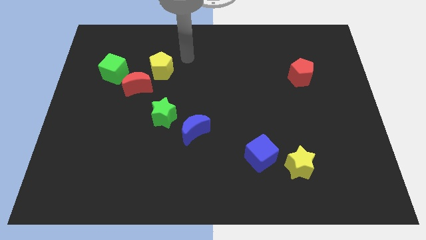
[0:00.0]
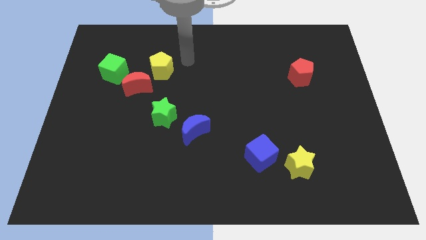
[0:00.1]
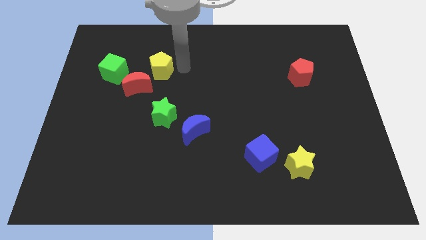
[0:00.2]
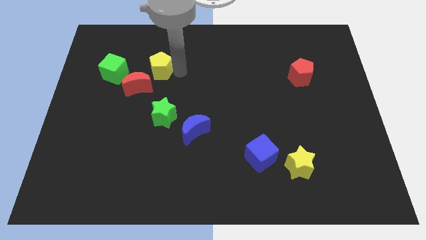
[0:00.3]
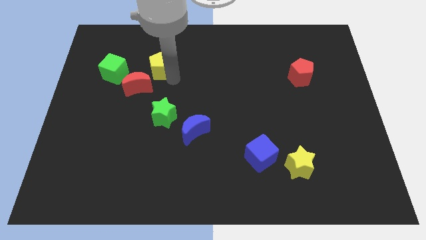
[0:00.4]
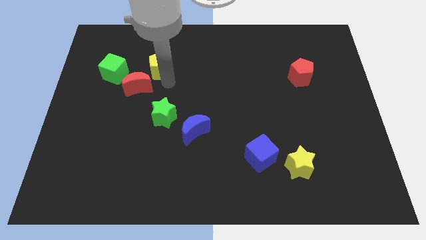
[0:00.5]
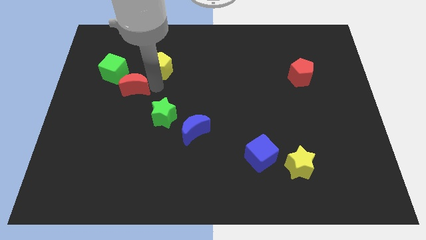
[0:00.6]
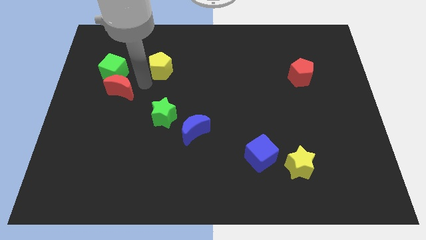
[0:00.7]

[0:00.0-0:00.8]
pull the yellow pentagon apart from the red moon

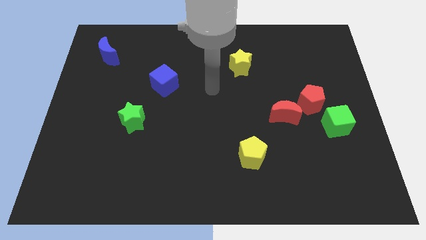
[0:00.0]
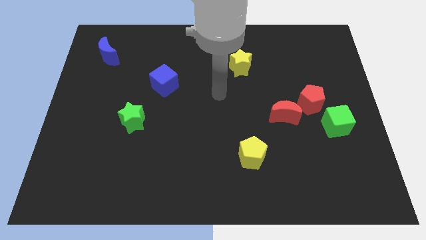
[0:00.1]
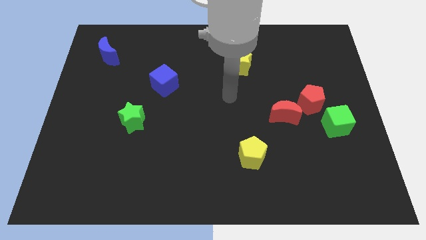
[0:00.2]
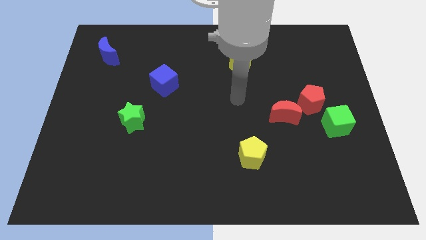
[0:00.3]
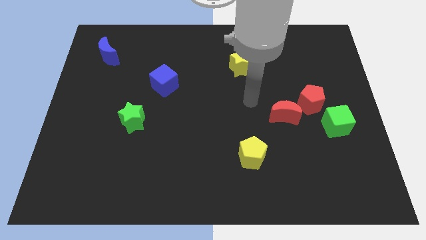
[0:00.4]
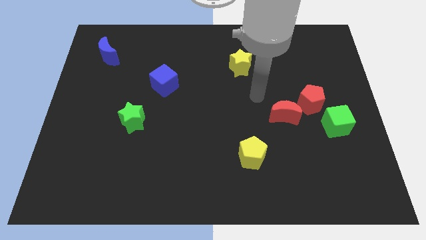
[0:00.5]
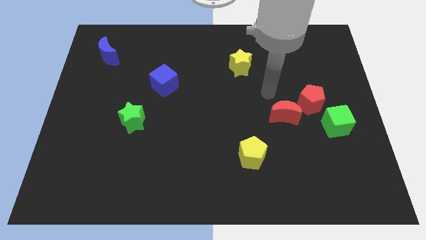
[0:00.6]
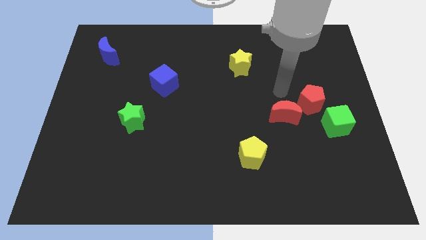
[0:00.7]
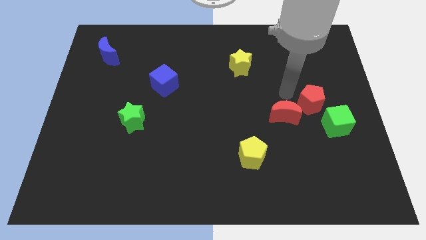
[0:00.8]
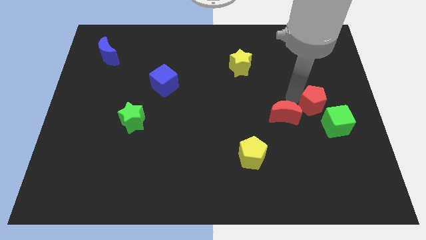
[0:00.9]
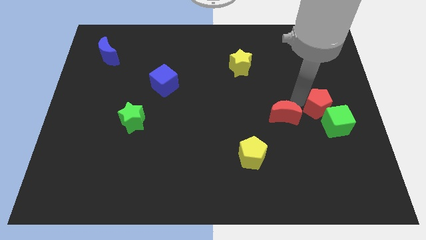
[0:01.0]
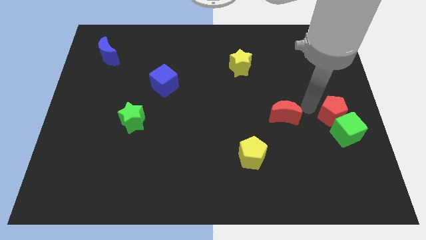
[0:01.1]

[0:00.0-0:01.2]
move the red moon away from the red pentagon

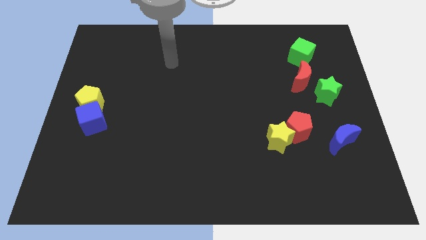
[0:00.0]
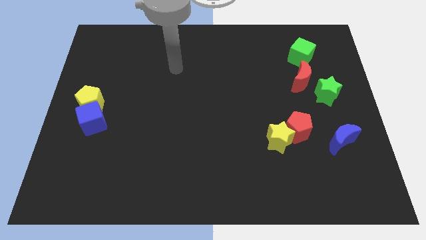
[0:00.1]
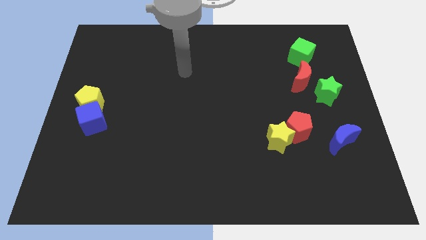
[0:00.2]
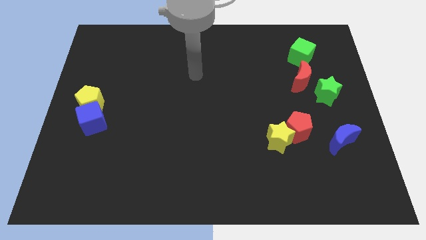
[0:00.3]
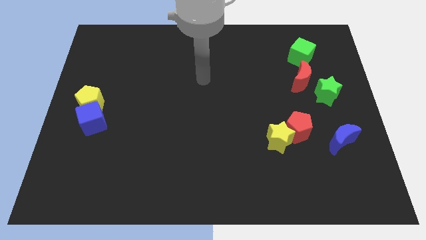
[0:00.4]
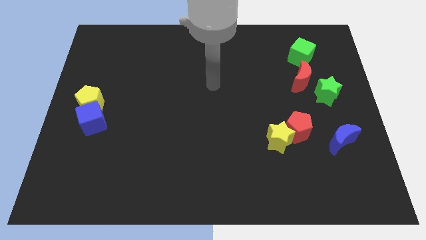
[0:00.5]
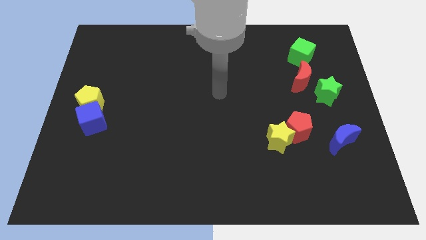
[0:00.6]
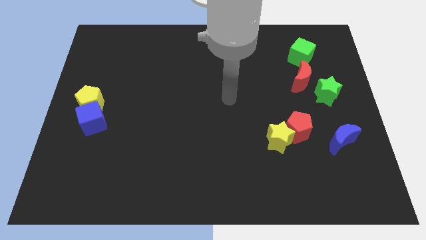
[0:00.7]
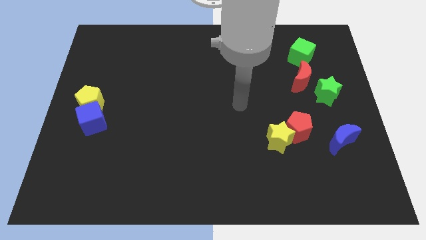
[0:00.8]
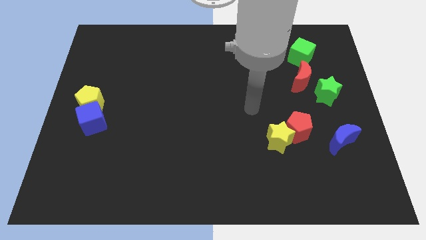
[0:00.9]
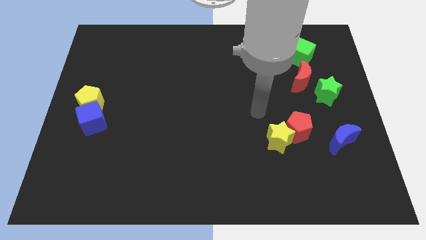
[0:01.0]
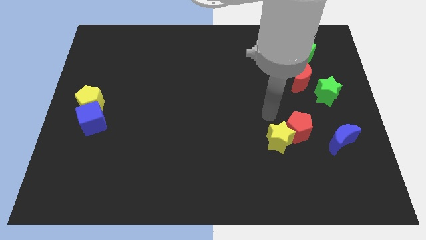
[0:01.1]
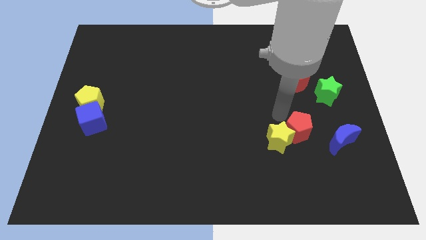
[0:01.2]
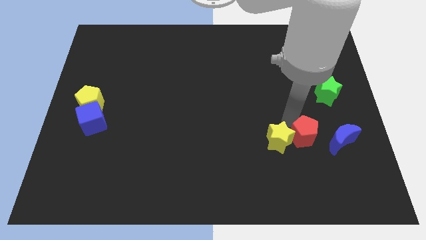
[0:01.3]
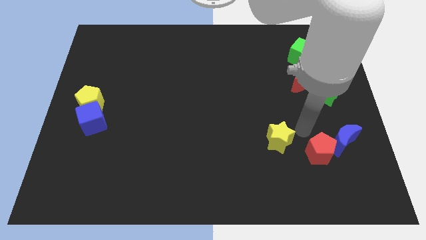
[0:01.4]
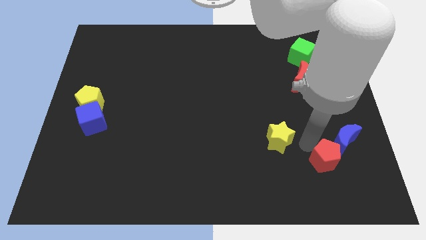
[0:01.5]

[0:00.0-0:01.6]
separate the yellow star from the red pentagon

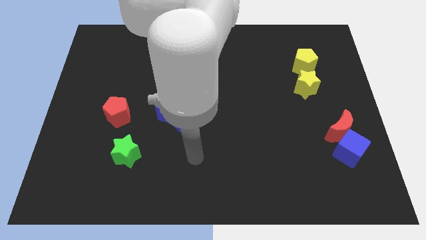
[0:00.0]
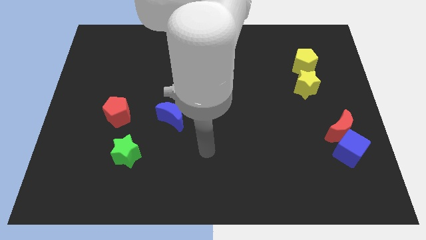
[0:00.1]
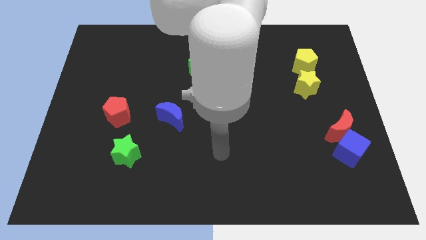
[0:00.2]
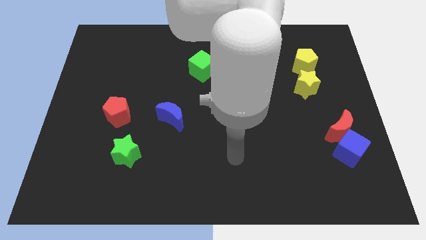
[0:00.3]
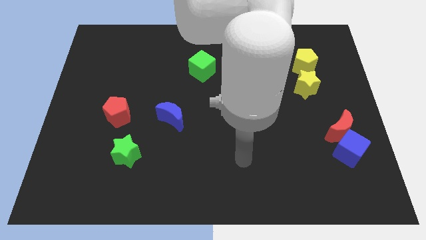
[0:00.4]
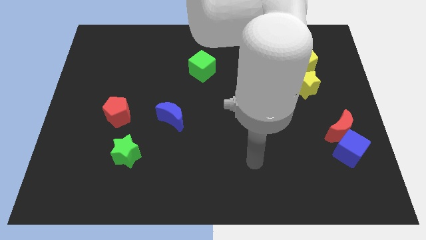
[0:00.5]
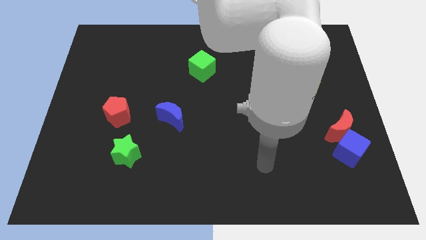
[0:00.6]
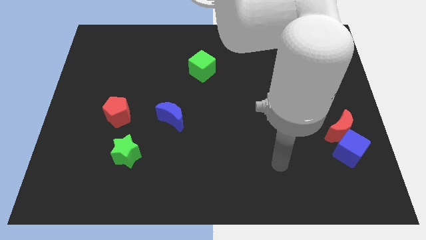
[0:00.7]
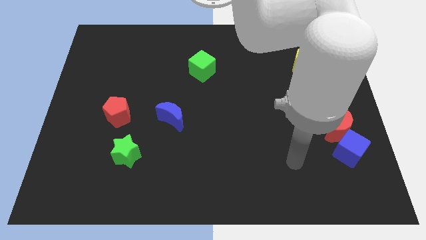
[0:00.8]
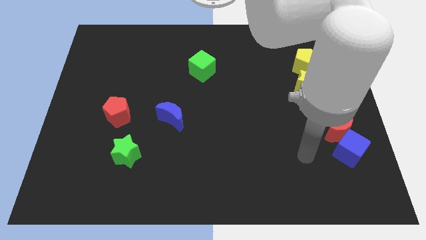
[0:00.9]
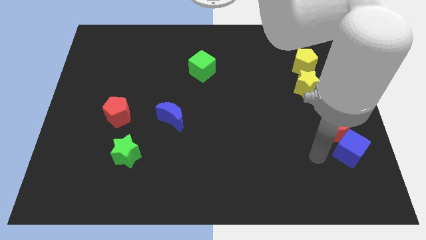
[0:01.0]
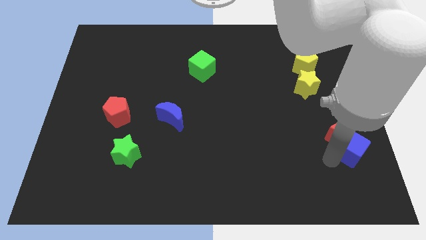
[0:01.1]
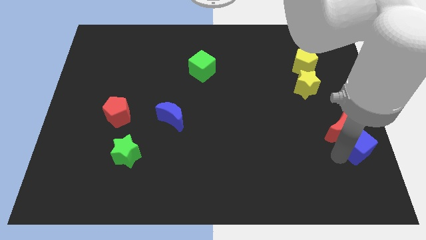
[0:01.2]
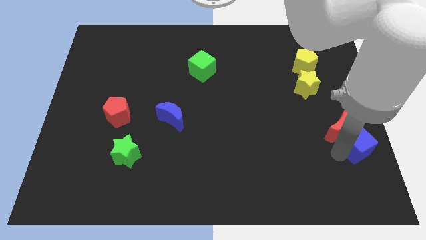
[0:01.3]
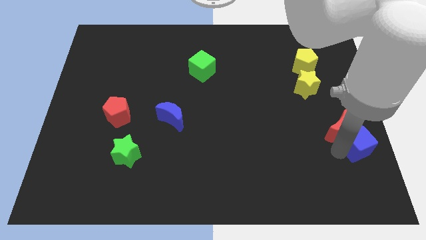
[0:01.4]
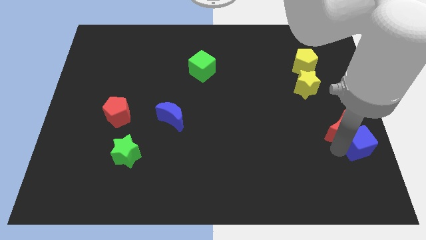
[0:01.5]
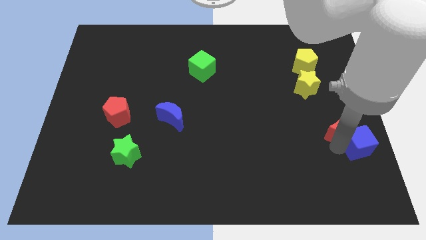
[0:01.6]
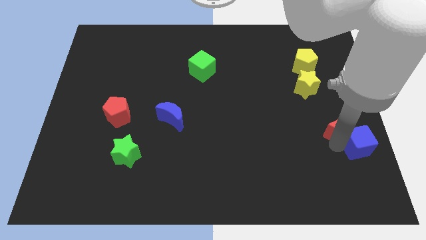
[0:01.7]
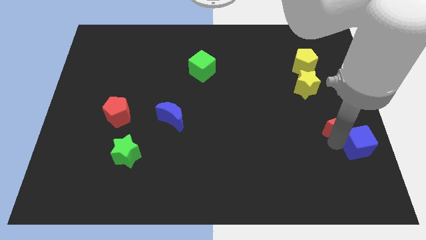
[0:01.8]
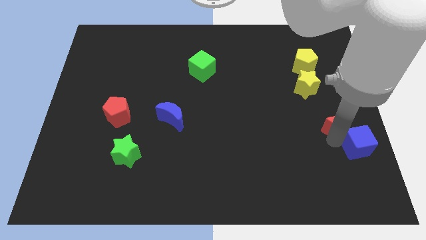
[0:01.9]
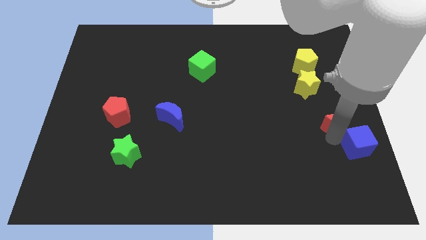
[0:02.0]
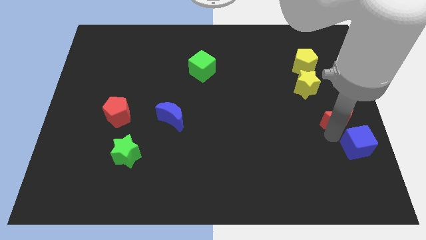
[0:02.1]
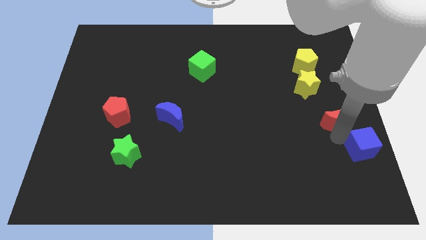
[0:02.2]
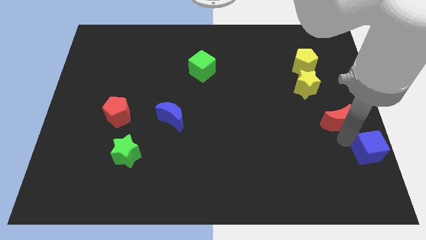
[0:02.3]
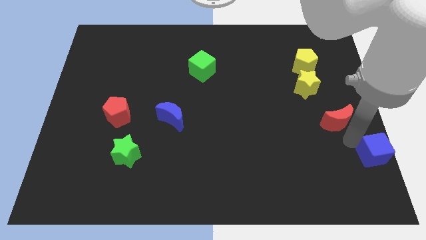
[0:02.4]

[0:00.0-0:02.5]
move the red moon away from the blue cube

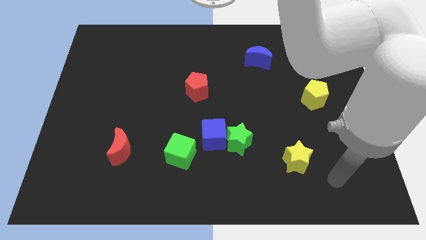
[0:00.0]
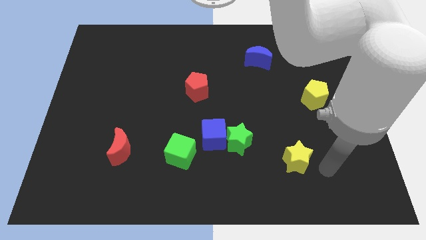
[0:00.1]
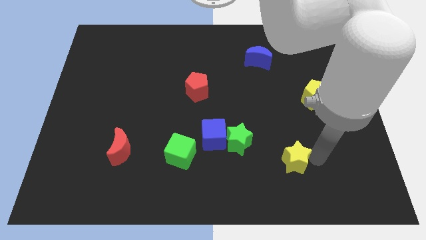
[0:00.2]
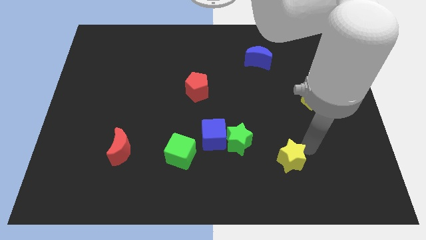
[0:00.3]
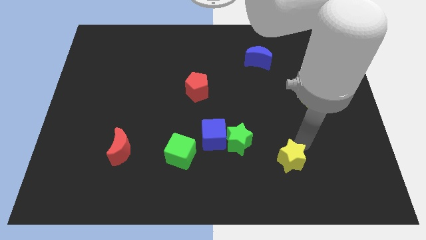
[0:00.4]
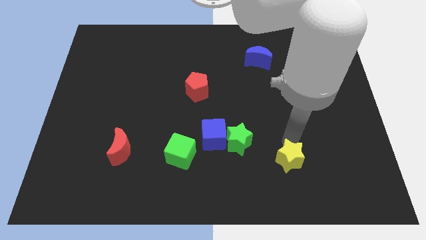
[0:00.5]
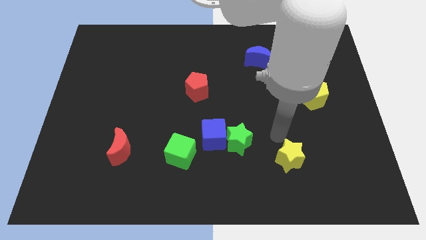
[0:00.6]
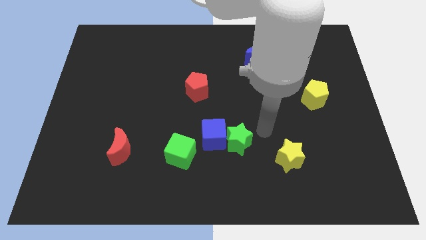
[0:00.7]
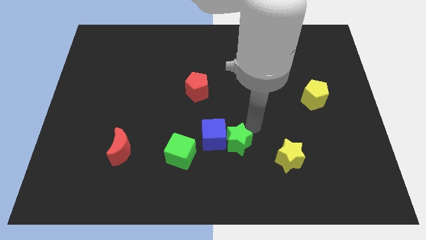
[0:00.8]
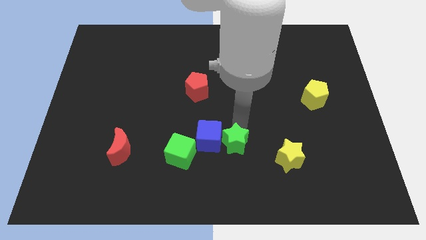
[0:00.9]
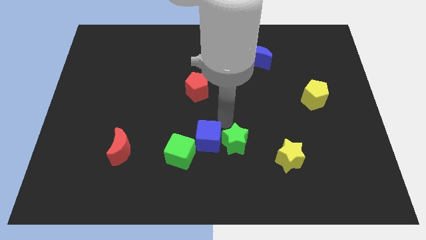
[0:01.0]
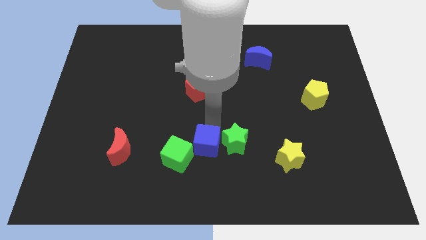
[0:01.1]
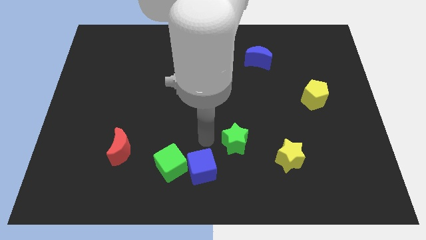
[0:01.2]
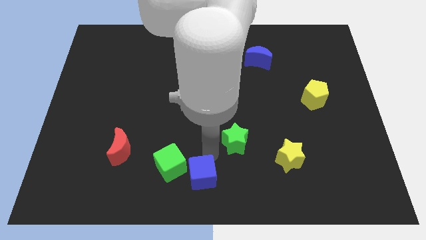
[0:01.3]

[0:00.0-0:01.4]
move the green star away from the blue cube

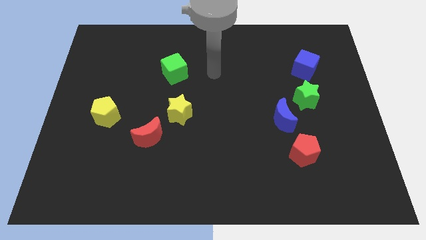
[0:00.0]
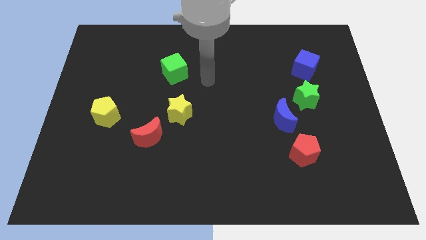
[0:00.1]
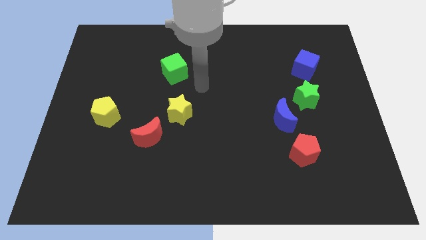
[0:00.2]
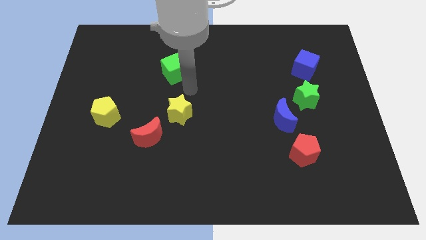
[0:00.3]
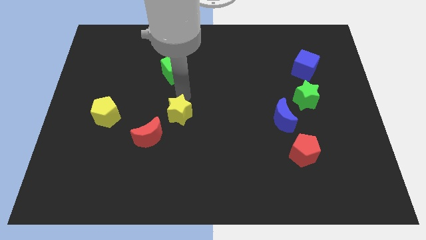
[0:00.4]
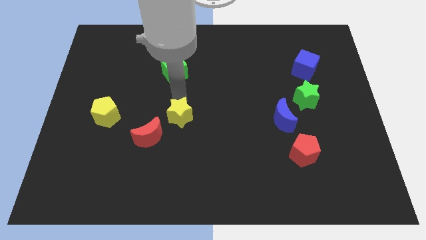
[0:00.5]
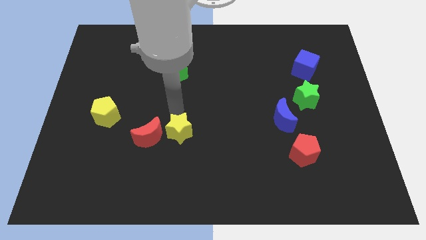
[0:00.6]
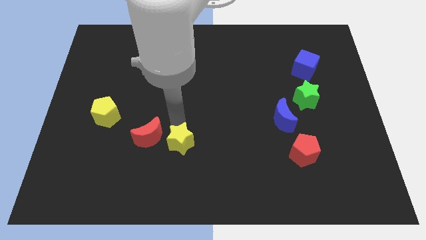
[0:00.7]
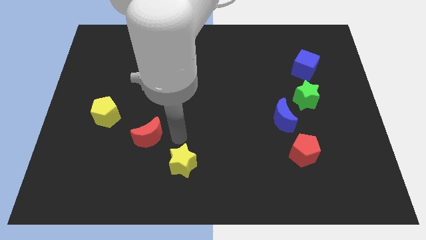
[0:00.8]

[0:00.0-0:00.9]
separate the red moon from the yellow star

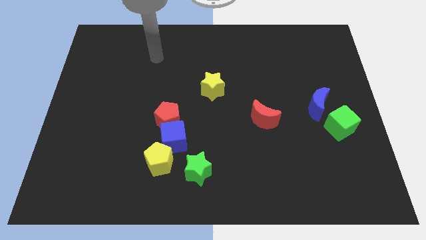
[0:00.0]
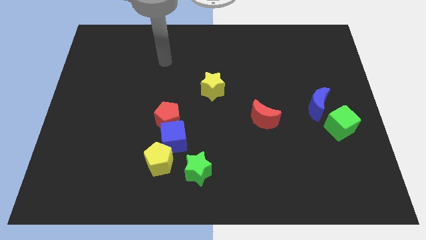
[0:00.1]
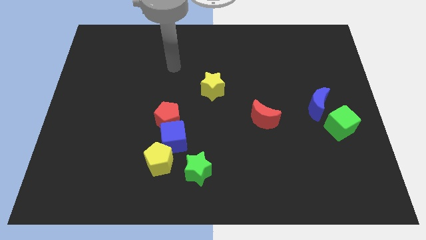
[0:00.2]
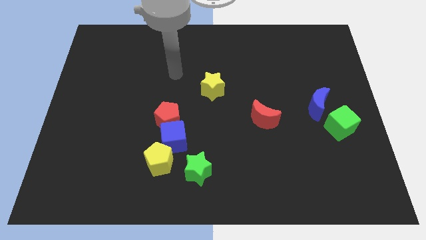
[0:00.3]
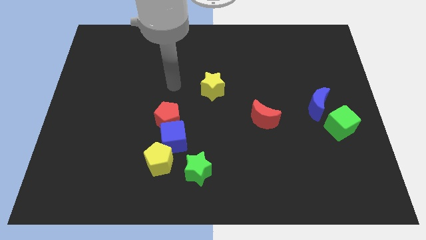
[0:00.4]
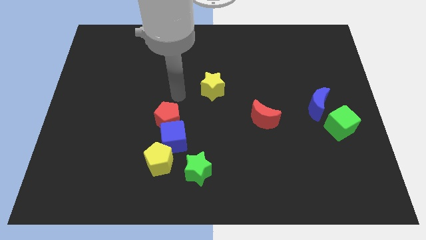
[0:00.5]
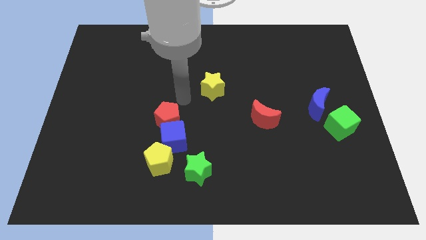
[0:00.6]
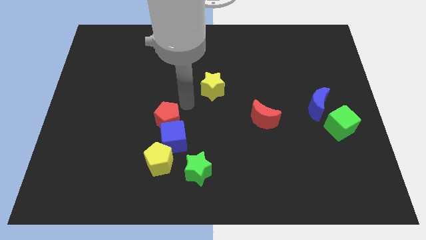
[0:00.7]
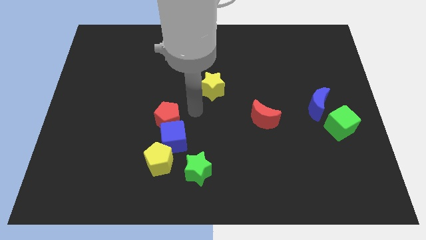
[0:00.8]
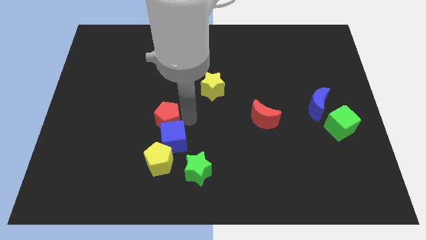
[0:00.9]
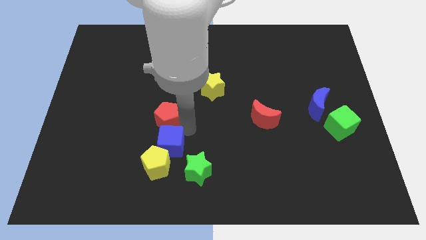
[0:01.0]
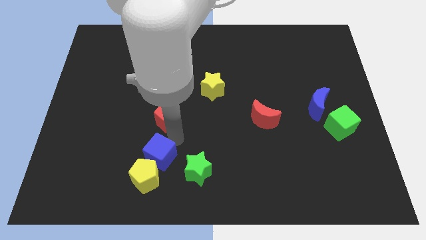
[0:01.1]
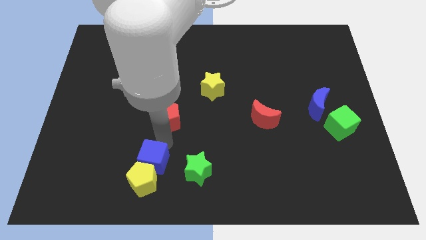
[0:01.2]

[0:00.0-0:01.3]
separate the red pentagon from the blue cube
